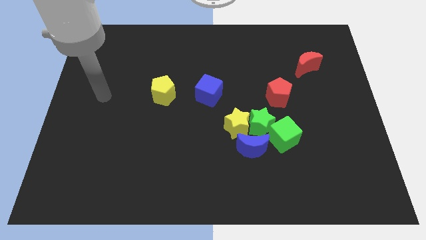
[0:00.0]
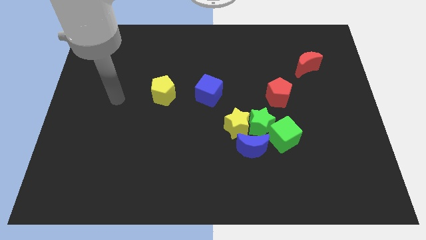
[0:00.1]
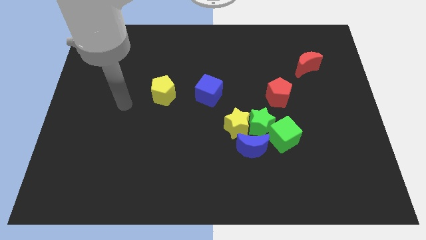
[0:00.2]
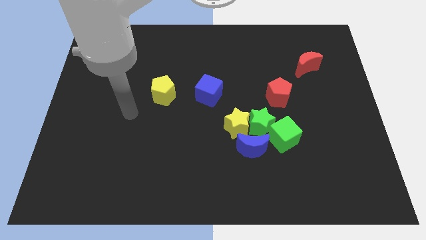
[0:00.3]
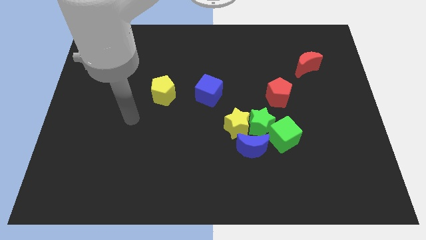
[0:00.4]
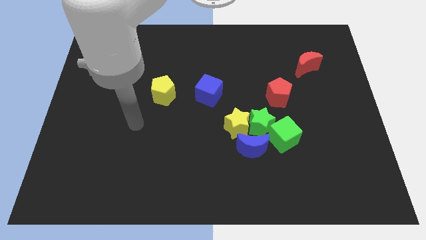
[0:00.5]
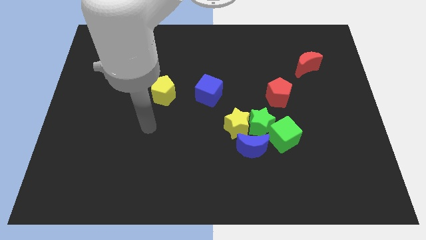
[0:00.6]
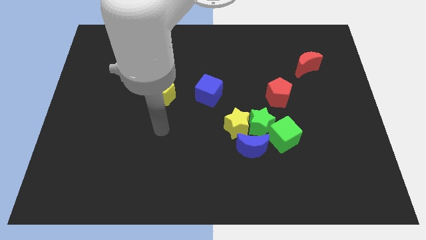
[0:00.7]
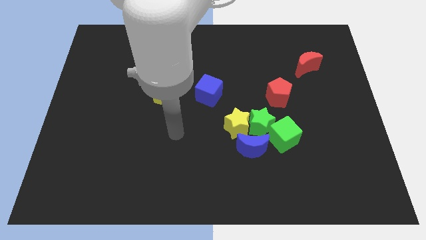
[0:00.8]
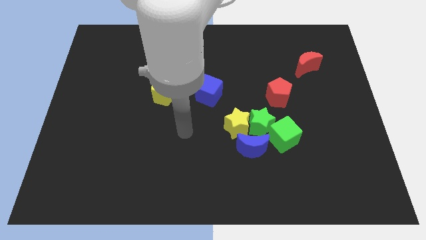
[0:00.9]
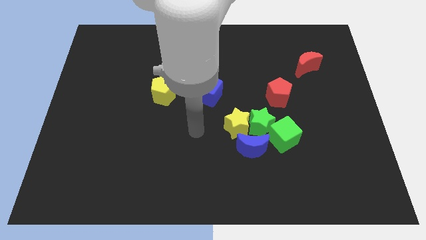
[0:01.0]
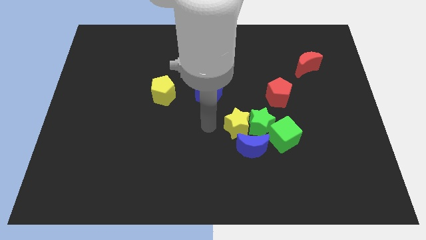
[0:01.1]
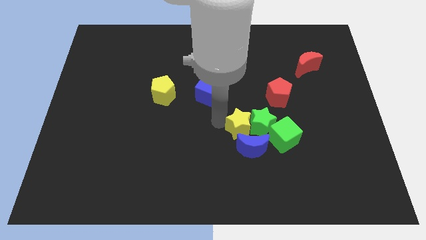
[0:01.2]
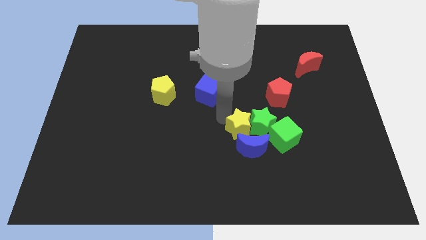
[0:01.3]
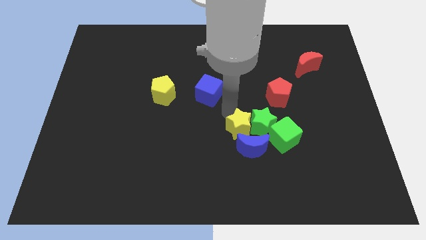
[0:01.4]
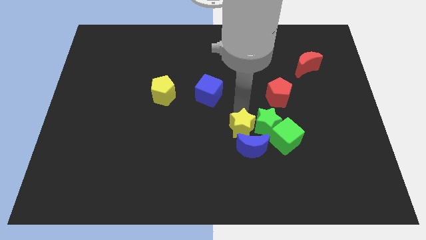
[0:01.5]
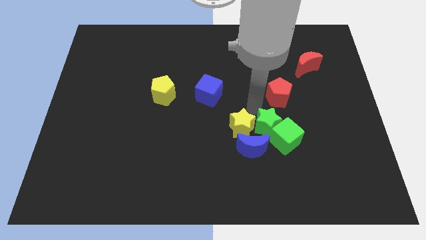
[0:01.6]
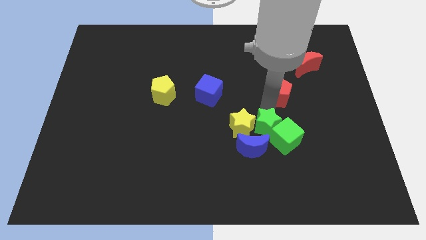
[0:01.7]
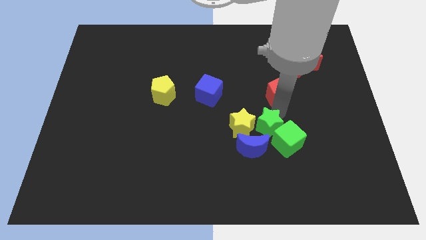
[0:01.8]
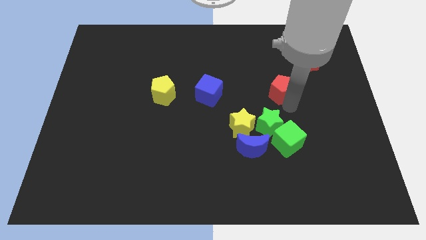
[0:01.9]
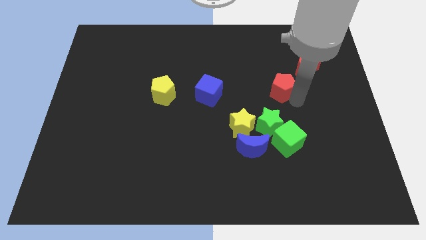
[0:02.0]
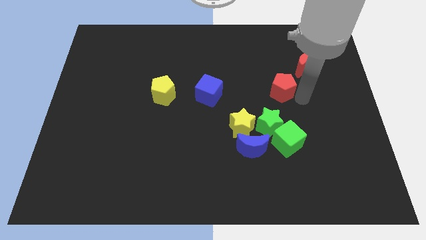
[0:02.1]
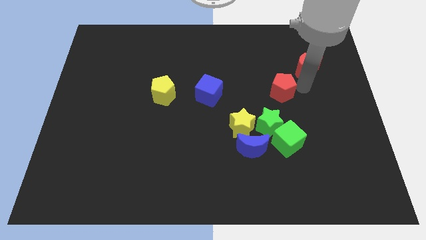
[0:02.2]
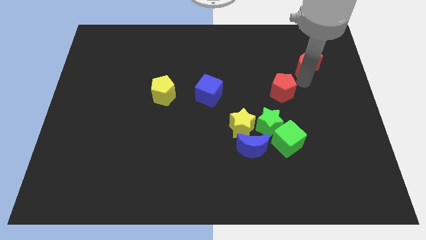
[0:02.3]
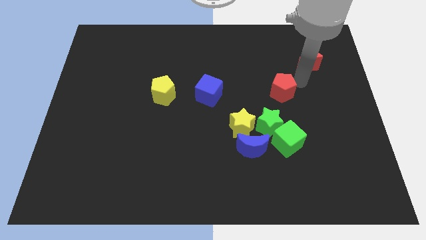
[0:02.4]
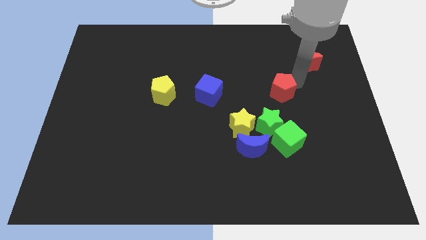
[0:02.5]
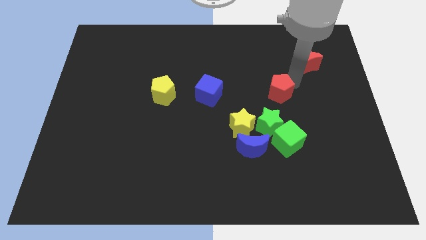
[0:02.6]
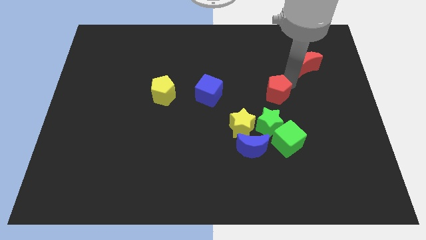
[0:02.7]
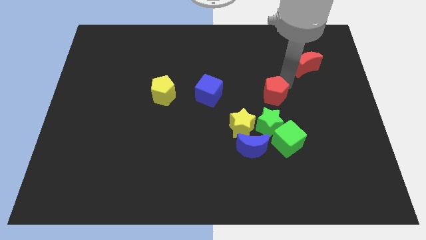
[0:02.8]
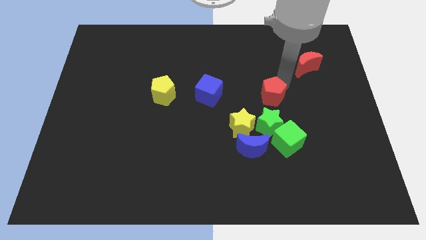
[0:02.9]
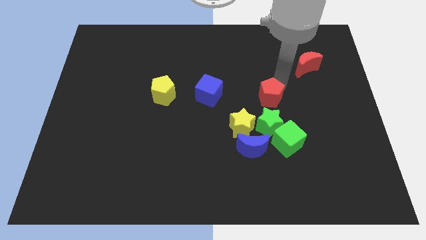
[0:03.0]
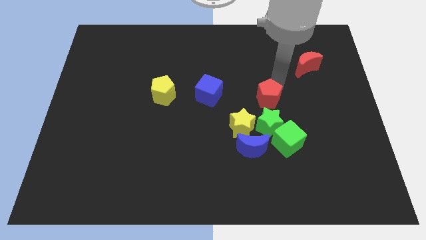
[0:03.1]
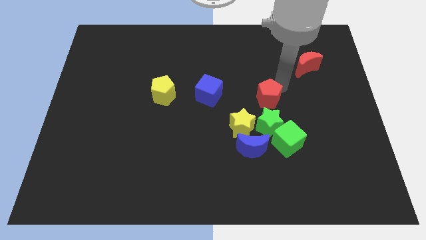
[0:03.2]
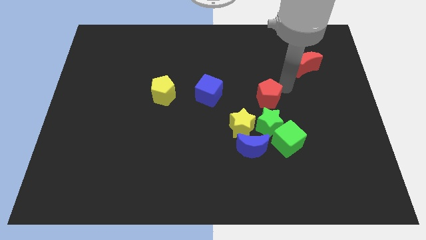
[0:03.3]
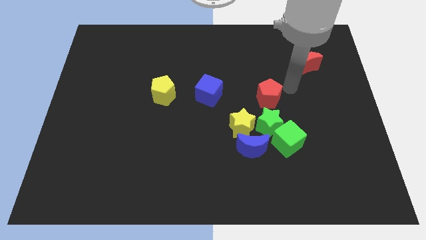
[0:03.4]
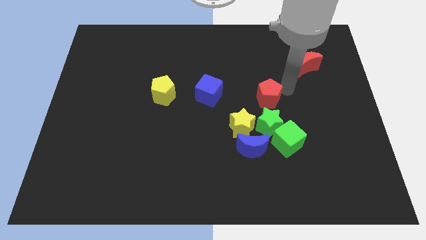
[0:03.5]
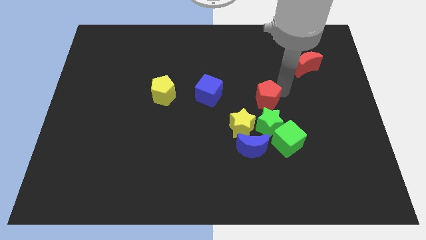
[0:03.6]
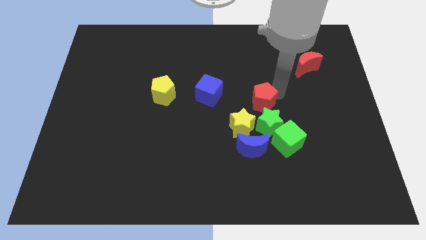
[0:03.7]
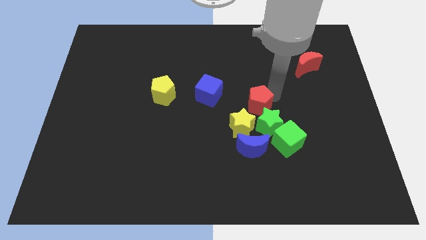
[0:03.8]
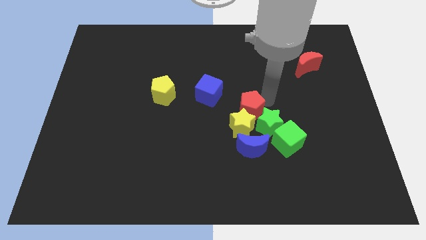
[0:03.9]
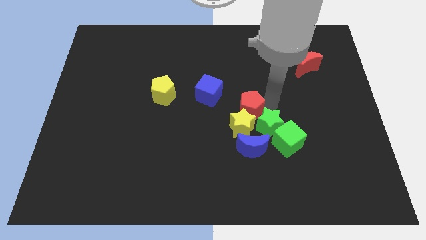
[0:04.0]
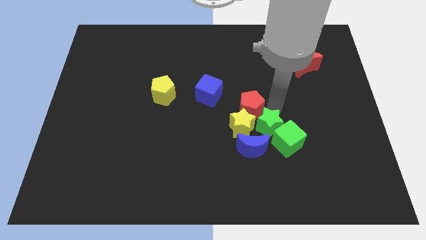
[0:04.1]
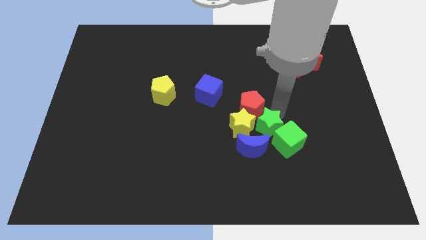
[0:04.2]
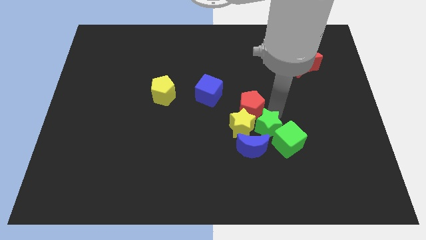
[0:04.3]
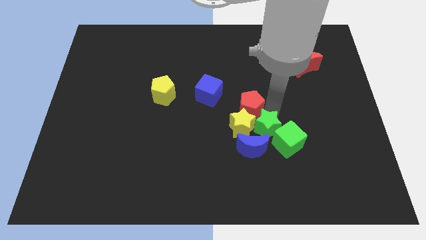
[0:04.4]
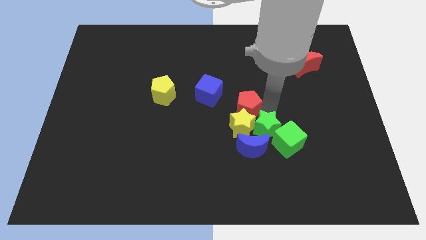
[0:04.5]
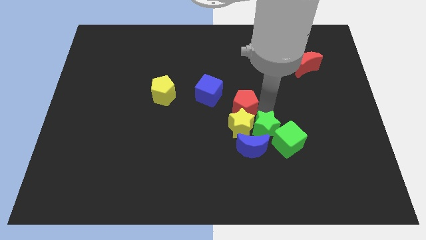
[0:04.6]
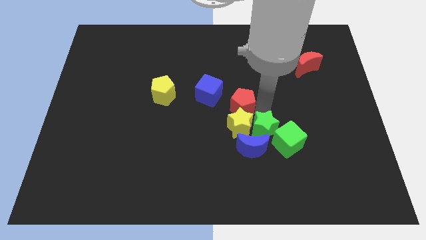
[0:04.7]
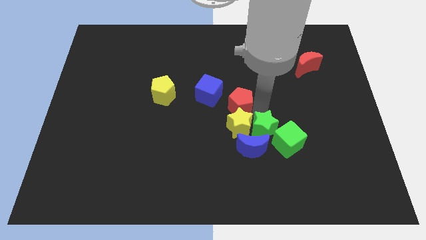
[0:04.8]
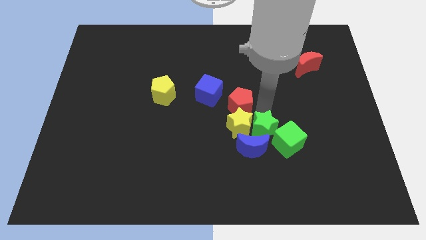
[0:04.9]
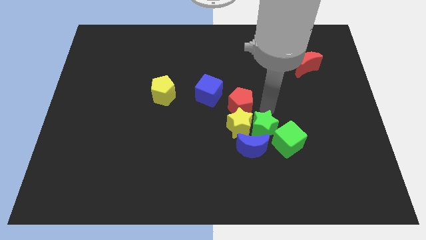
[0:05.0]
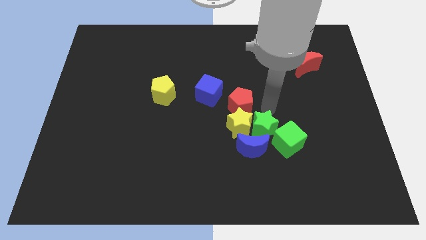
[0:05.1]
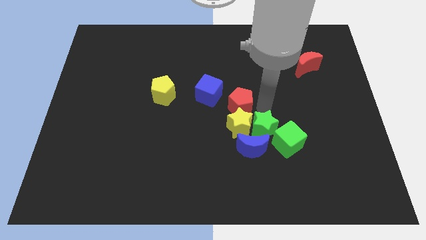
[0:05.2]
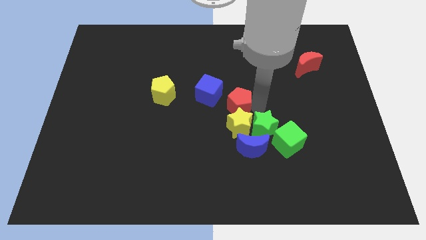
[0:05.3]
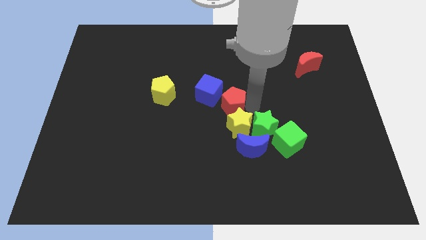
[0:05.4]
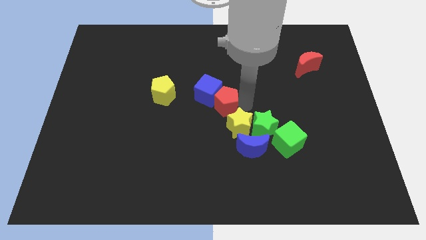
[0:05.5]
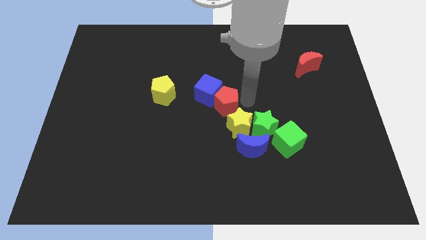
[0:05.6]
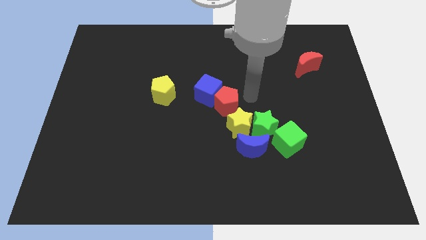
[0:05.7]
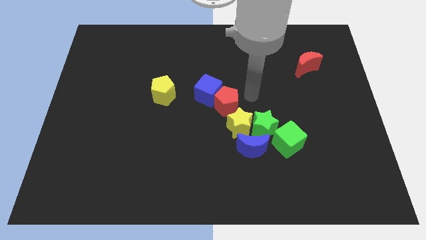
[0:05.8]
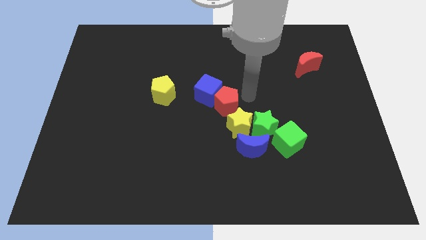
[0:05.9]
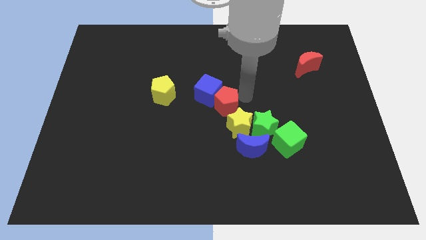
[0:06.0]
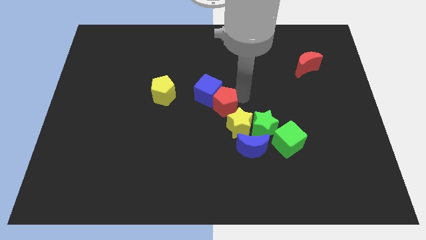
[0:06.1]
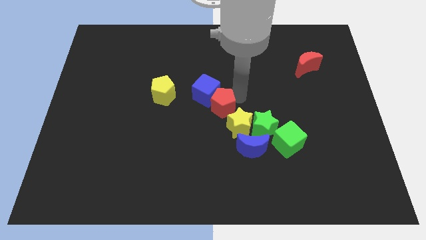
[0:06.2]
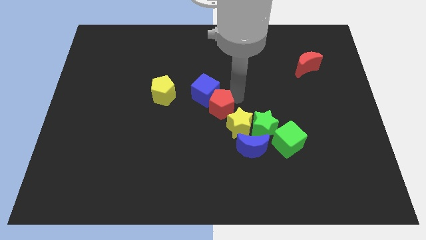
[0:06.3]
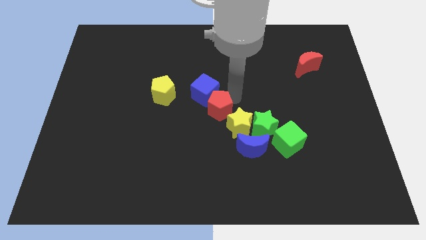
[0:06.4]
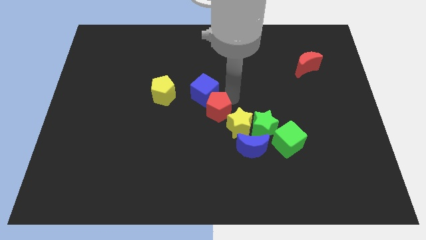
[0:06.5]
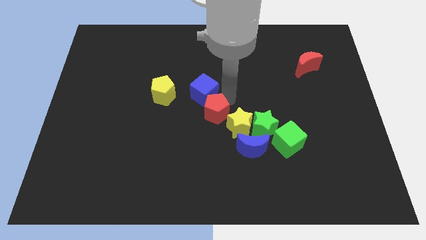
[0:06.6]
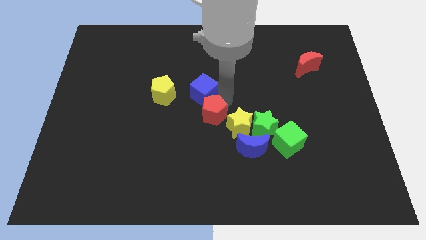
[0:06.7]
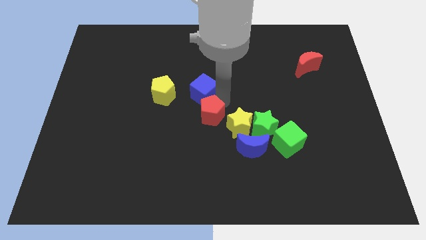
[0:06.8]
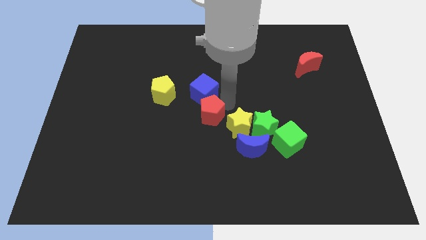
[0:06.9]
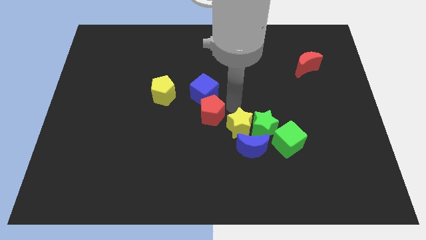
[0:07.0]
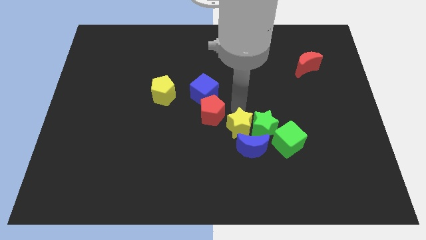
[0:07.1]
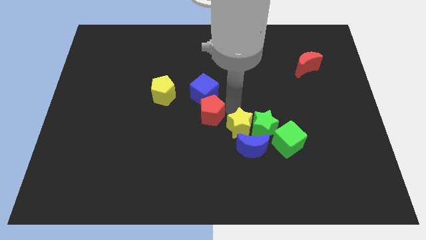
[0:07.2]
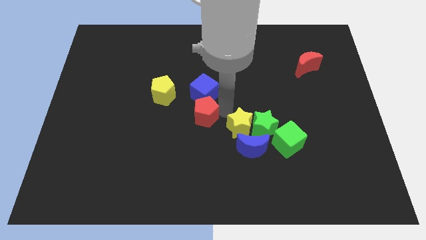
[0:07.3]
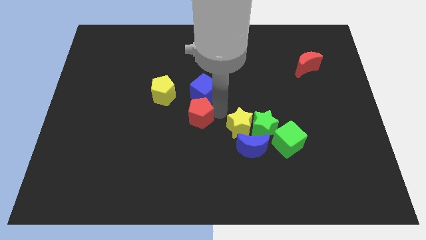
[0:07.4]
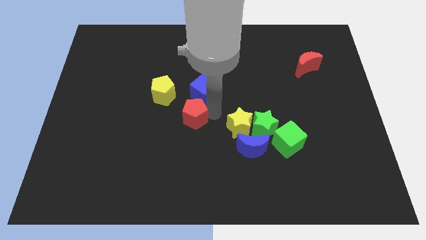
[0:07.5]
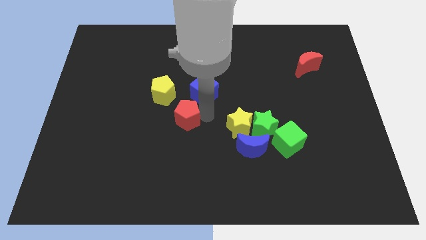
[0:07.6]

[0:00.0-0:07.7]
slide the red pentagon left
